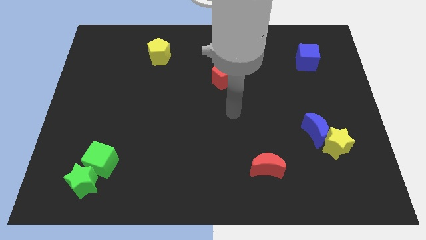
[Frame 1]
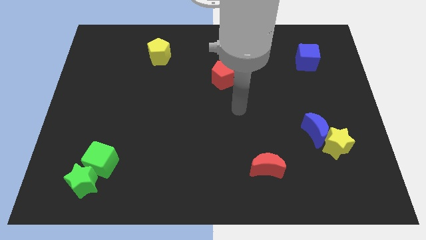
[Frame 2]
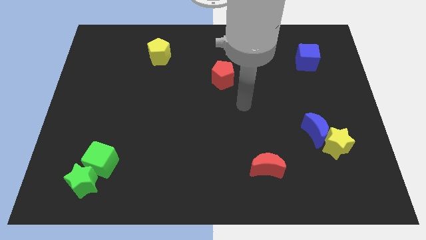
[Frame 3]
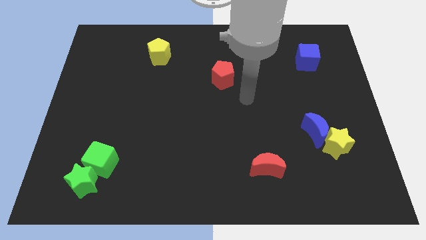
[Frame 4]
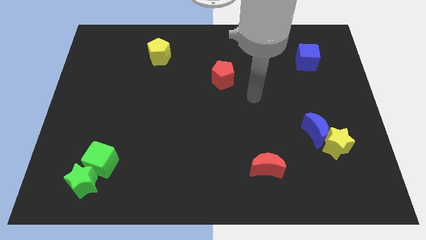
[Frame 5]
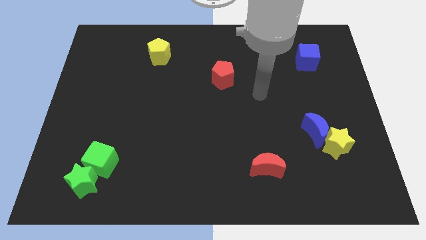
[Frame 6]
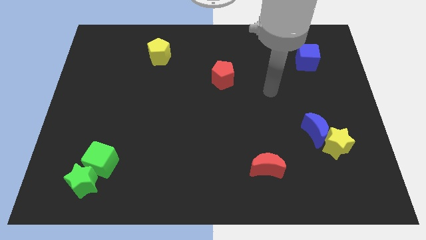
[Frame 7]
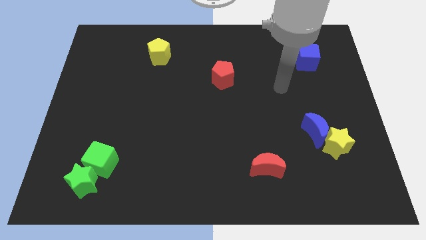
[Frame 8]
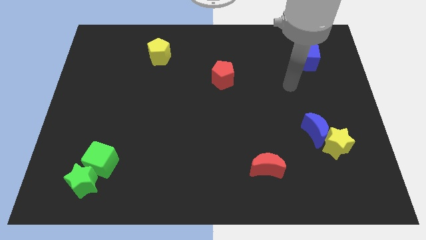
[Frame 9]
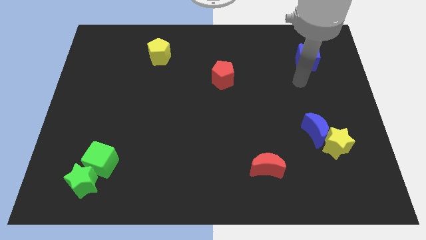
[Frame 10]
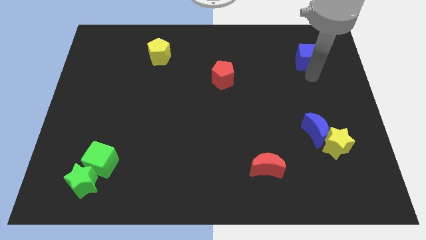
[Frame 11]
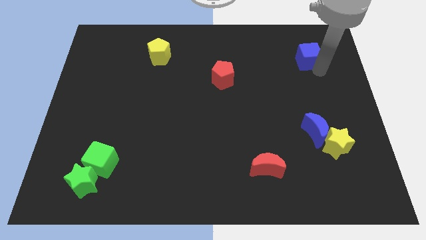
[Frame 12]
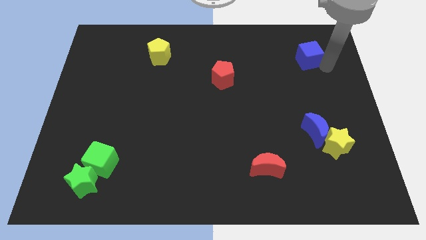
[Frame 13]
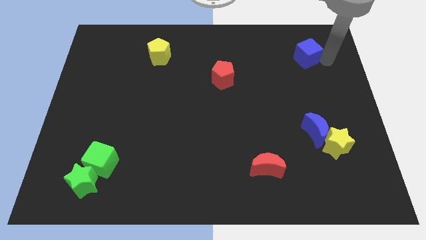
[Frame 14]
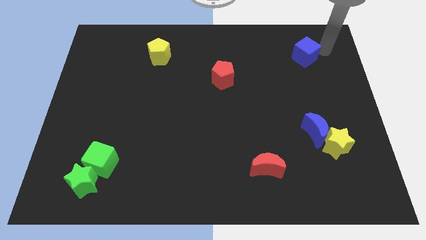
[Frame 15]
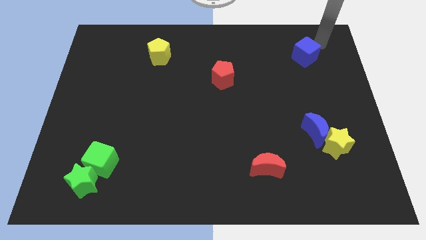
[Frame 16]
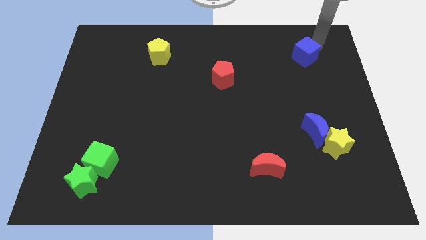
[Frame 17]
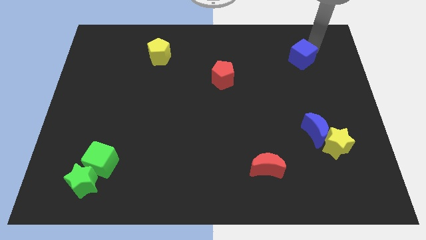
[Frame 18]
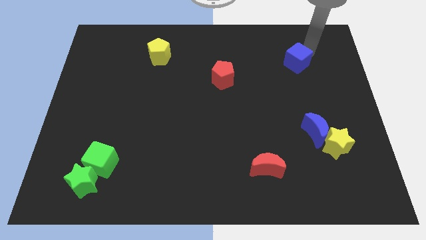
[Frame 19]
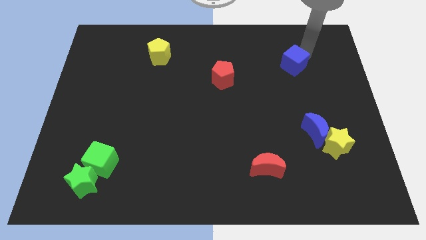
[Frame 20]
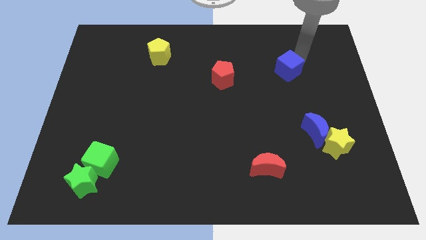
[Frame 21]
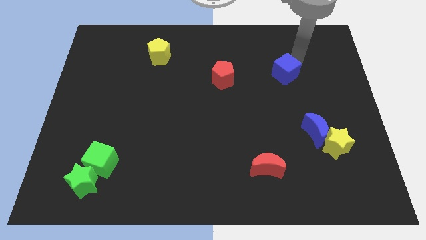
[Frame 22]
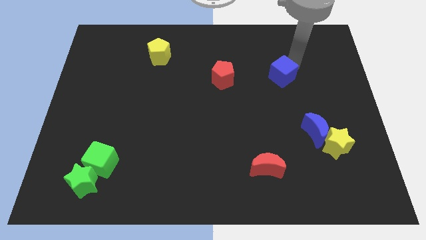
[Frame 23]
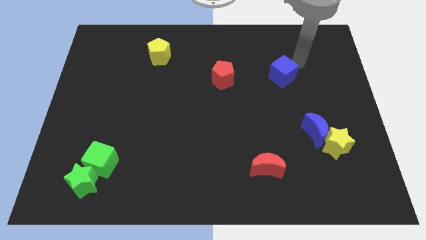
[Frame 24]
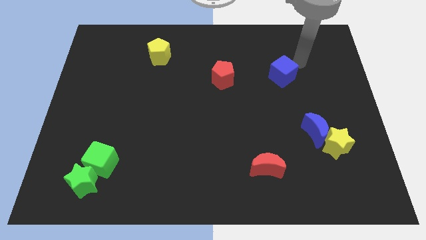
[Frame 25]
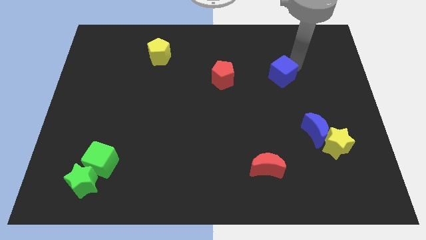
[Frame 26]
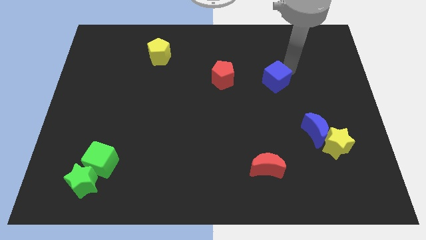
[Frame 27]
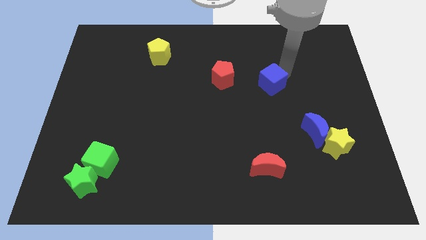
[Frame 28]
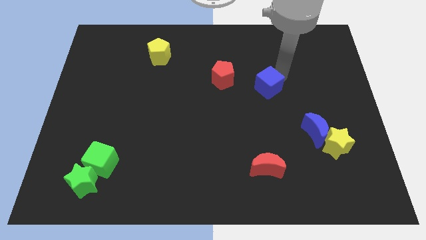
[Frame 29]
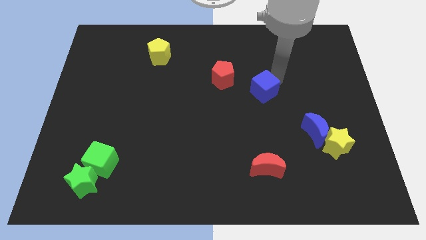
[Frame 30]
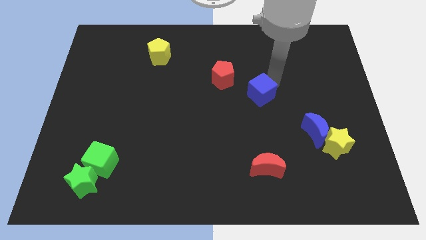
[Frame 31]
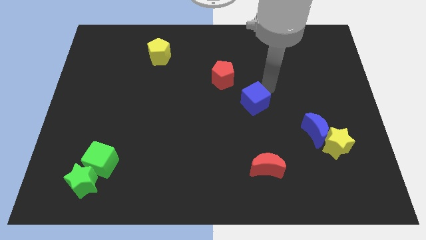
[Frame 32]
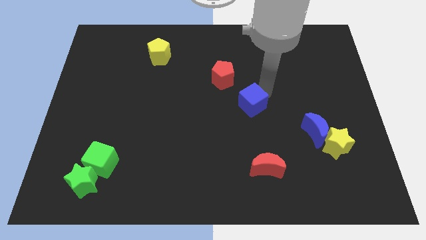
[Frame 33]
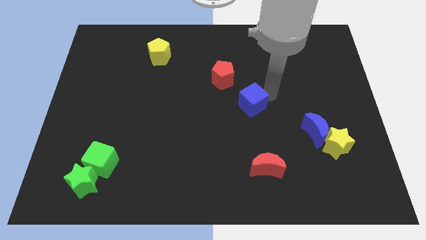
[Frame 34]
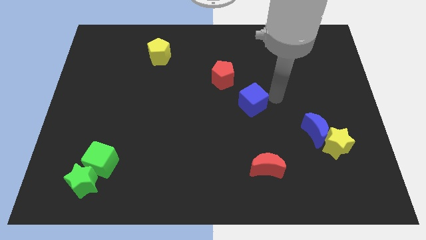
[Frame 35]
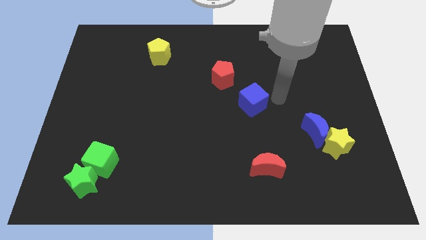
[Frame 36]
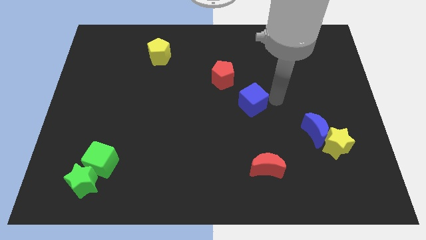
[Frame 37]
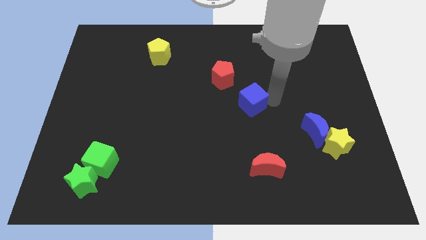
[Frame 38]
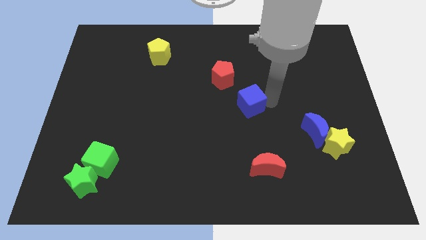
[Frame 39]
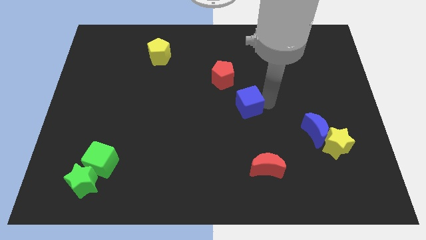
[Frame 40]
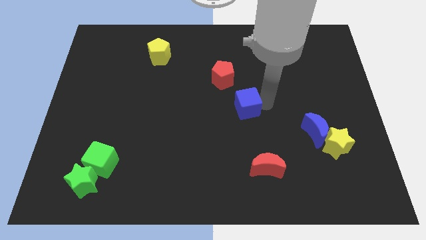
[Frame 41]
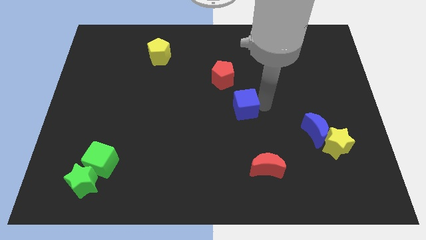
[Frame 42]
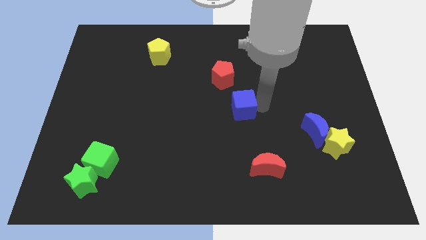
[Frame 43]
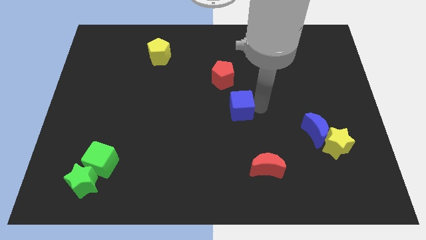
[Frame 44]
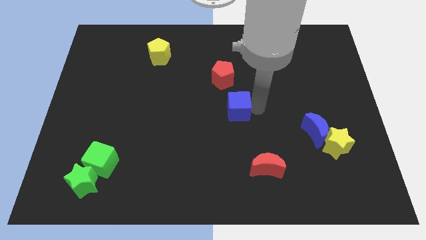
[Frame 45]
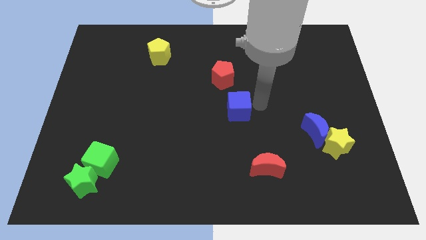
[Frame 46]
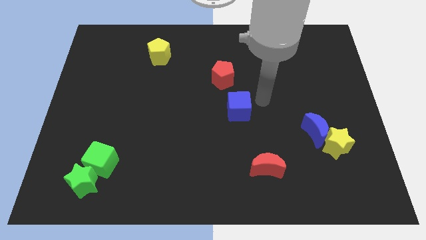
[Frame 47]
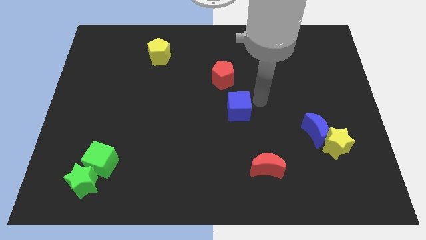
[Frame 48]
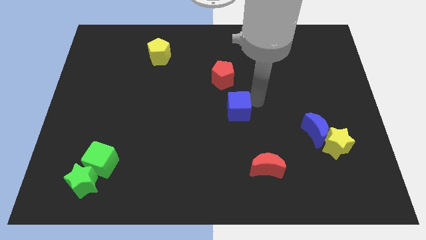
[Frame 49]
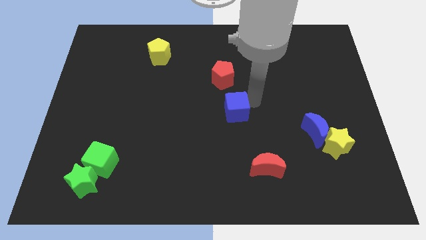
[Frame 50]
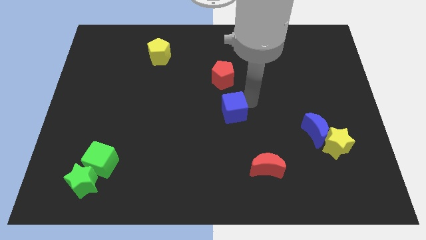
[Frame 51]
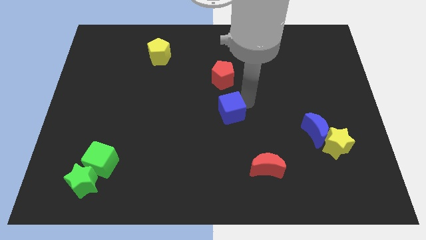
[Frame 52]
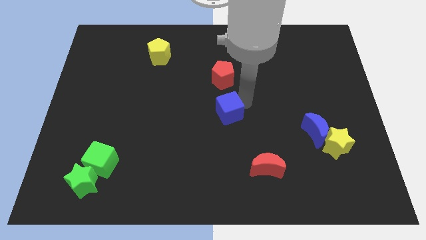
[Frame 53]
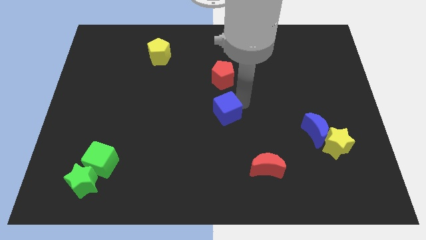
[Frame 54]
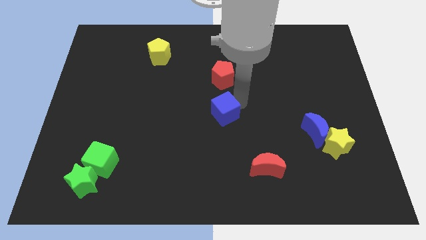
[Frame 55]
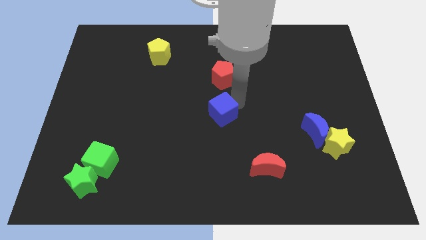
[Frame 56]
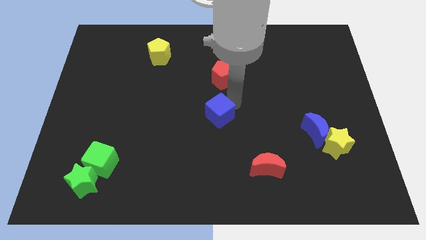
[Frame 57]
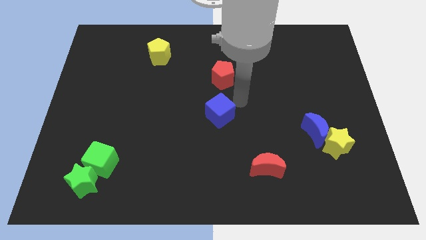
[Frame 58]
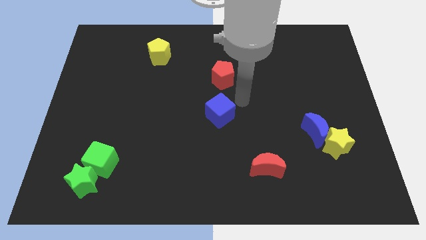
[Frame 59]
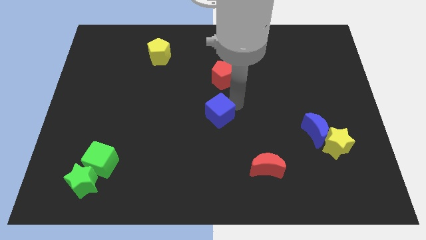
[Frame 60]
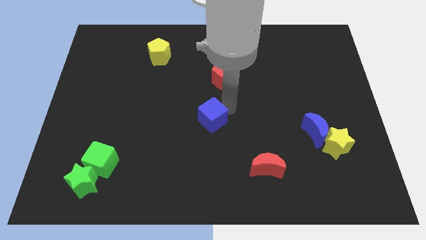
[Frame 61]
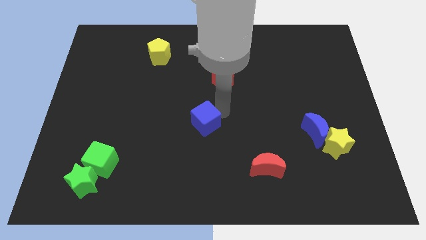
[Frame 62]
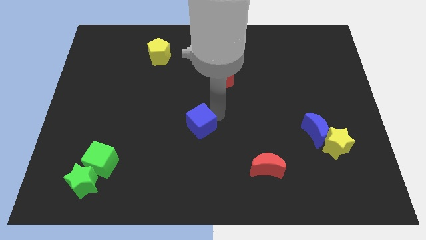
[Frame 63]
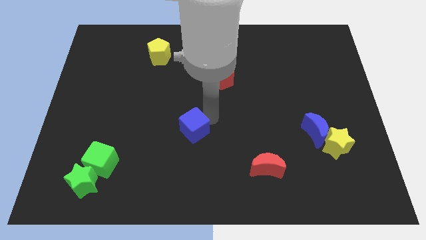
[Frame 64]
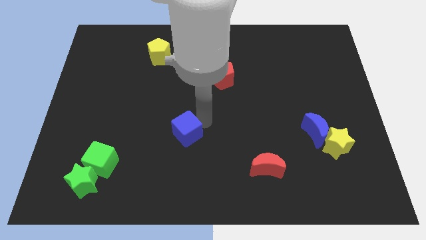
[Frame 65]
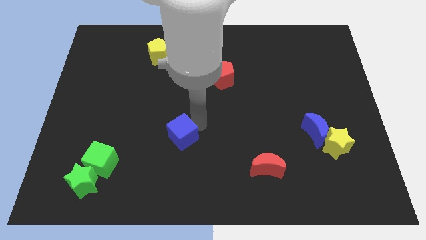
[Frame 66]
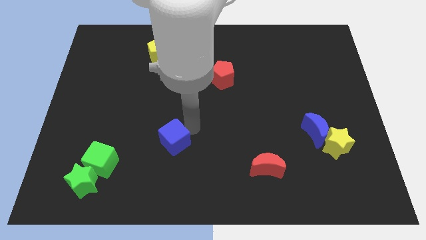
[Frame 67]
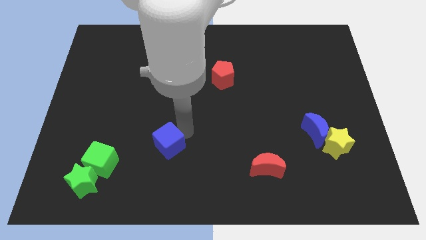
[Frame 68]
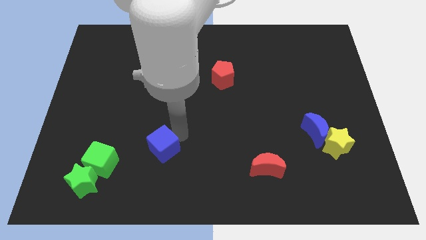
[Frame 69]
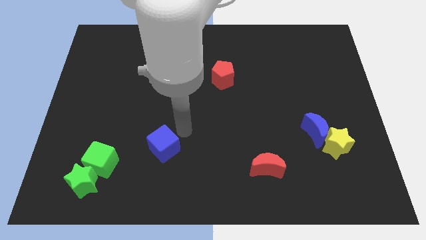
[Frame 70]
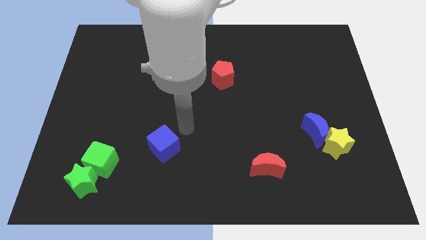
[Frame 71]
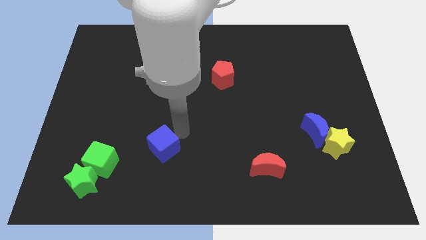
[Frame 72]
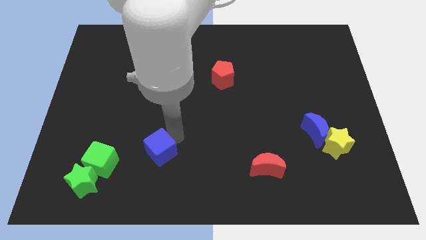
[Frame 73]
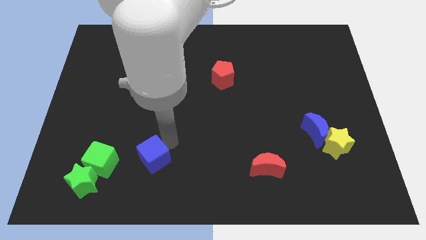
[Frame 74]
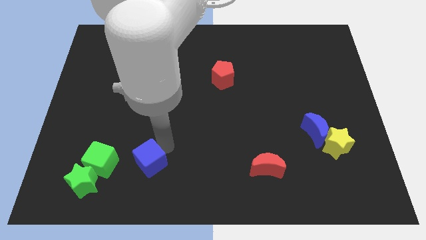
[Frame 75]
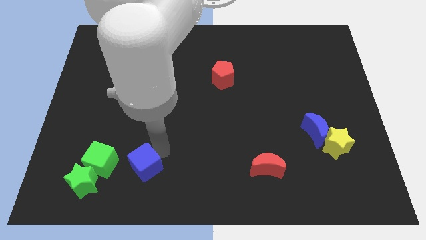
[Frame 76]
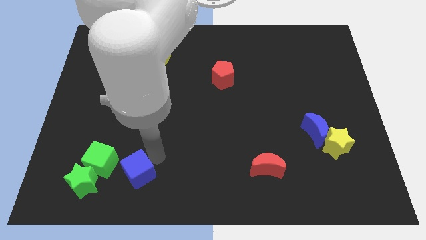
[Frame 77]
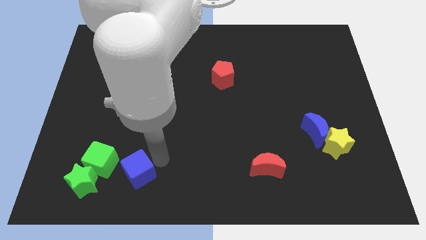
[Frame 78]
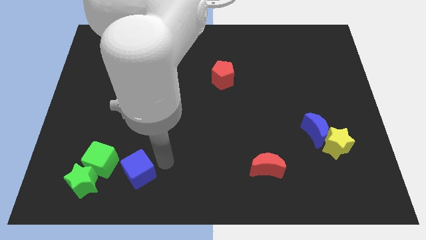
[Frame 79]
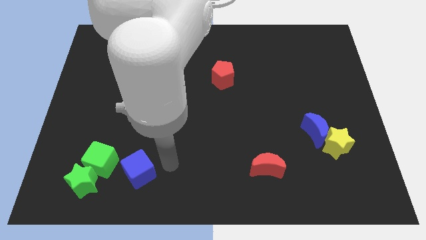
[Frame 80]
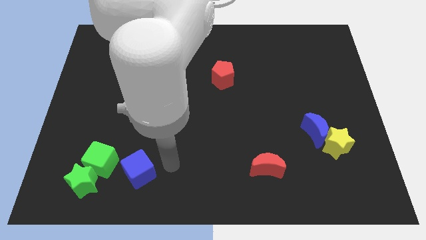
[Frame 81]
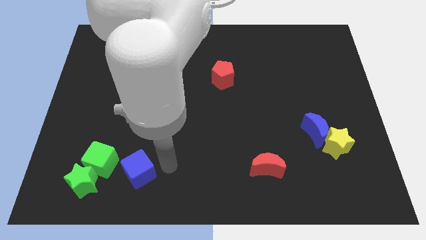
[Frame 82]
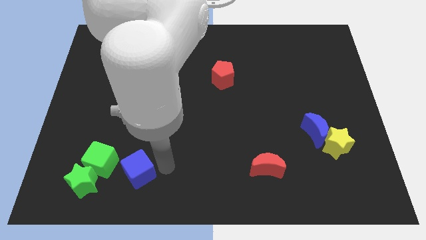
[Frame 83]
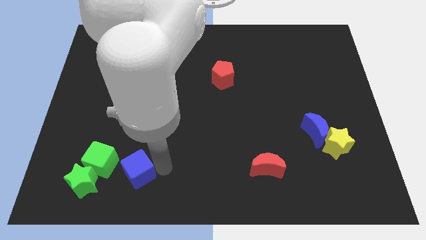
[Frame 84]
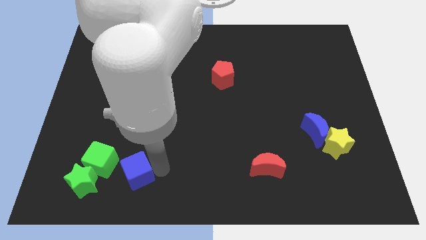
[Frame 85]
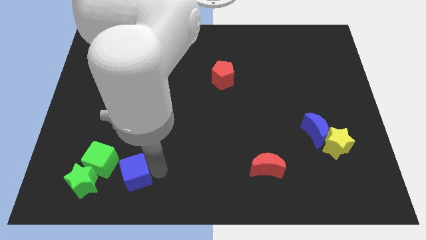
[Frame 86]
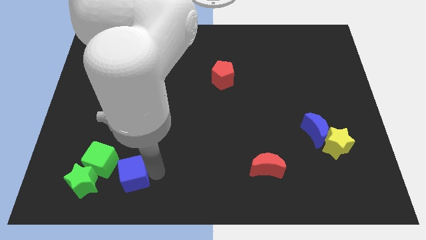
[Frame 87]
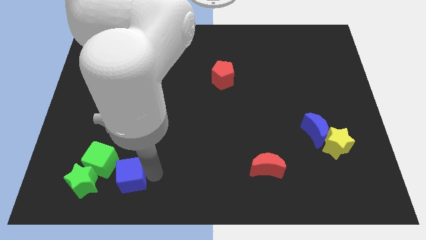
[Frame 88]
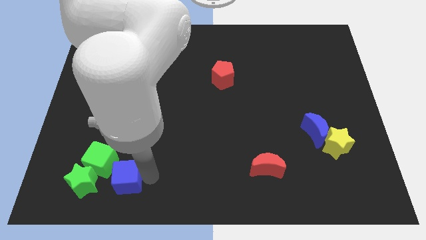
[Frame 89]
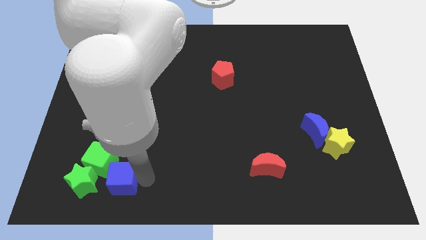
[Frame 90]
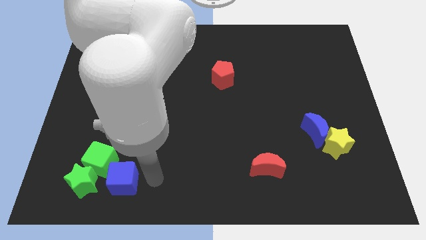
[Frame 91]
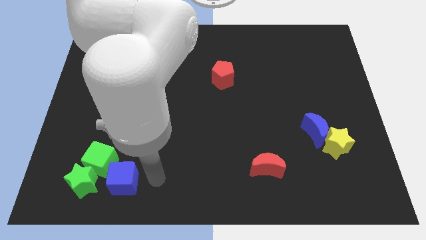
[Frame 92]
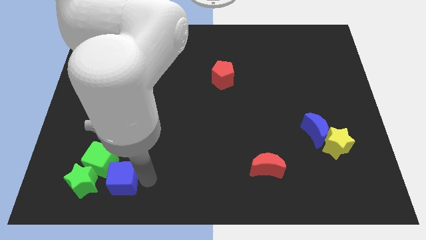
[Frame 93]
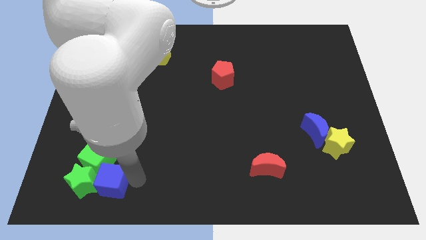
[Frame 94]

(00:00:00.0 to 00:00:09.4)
put the blue cube towards the green star
